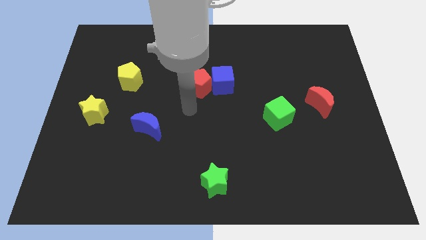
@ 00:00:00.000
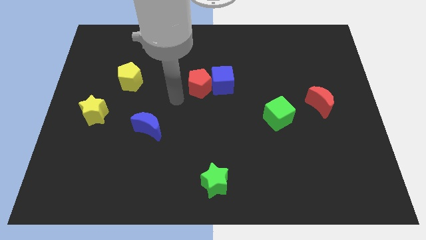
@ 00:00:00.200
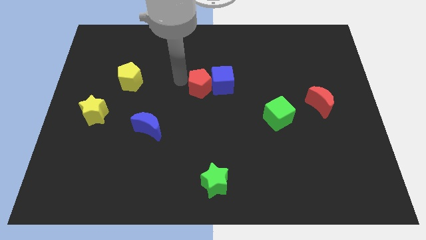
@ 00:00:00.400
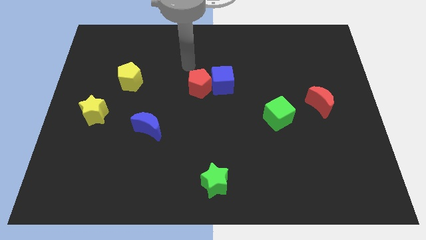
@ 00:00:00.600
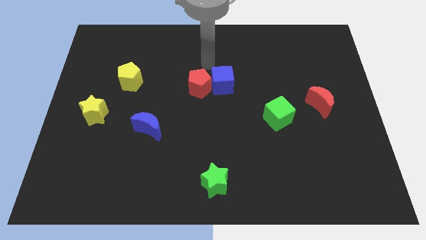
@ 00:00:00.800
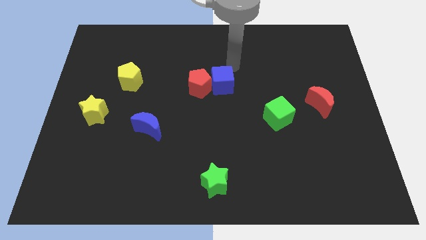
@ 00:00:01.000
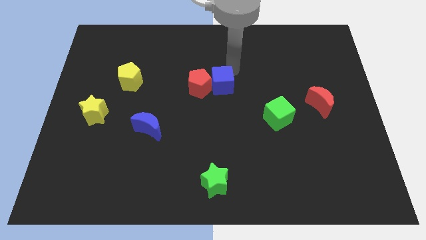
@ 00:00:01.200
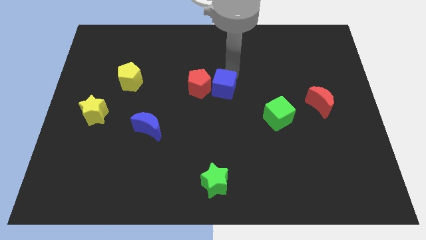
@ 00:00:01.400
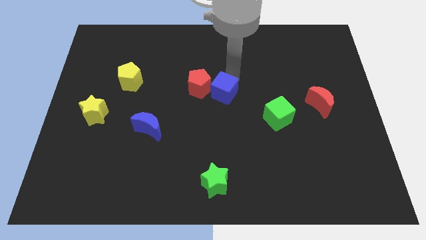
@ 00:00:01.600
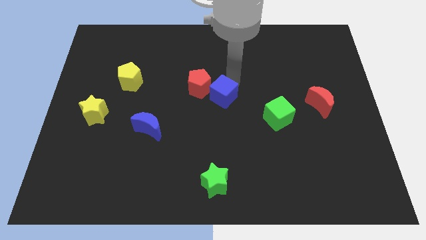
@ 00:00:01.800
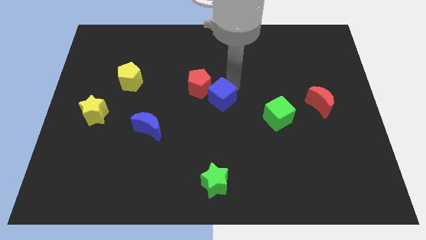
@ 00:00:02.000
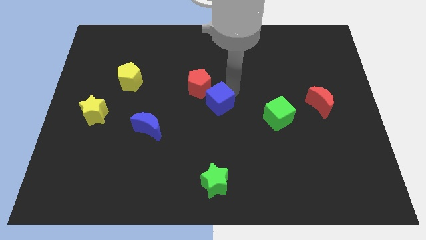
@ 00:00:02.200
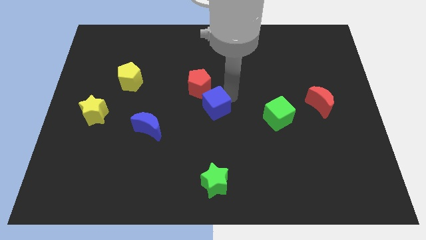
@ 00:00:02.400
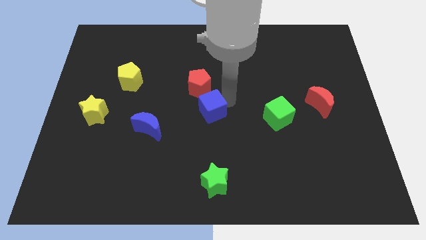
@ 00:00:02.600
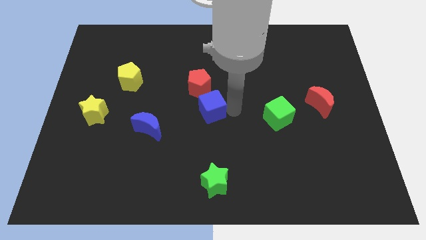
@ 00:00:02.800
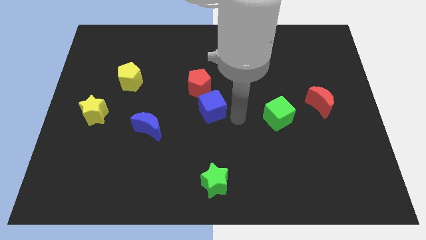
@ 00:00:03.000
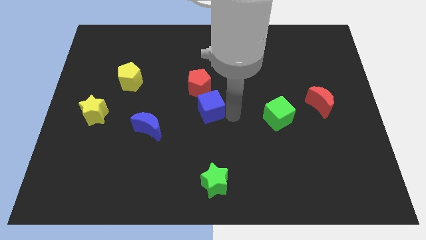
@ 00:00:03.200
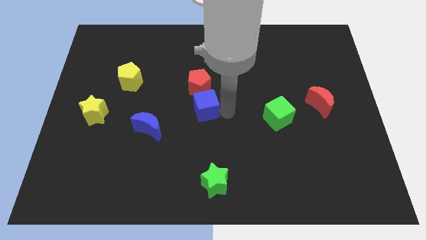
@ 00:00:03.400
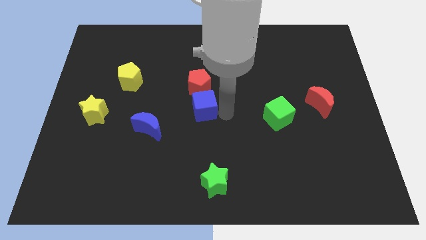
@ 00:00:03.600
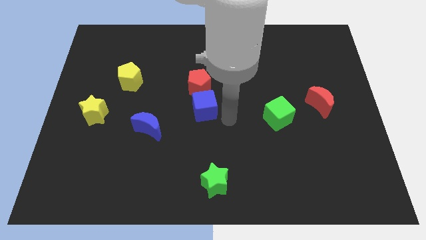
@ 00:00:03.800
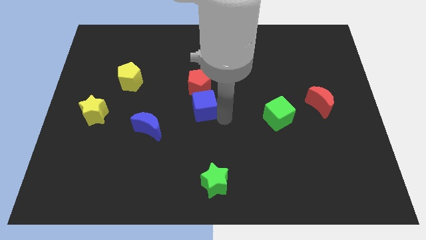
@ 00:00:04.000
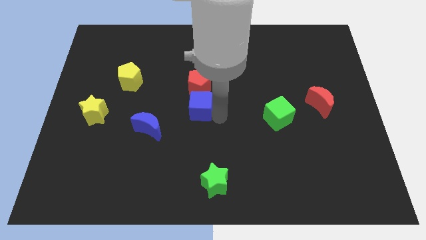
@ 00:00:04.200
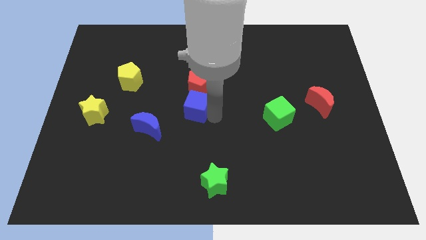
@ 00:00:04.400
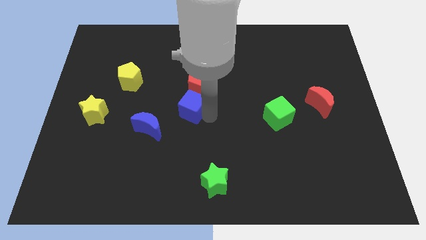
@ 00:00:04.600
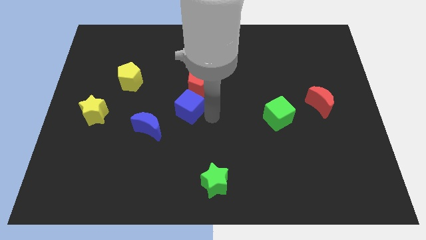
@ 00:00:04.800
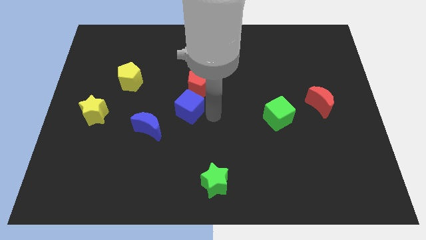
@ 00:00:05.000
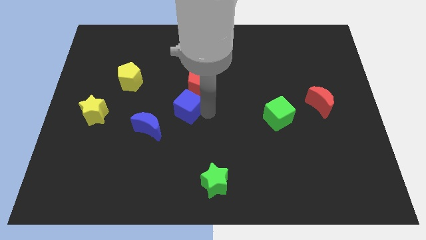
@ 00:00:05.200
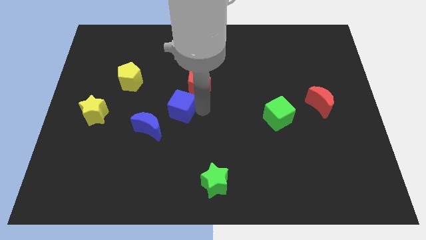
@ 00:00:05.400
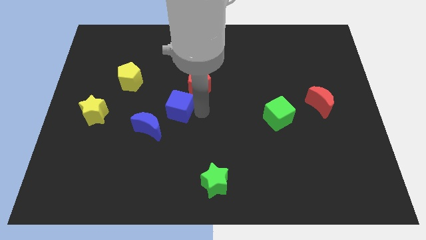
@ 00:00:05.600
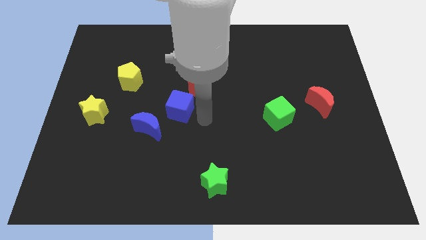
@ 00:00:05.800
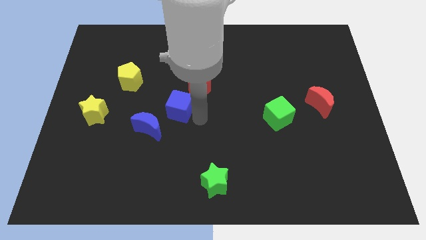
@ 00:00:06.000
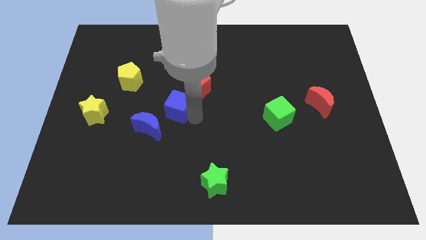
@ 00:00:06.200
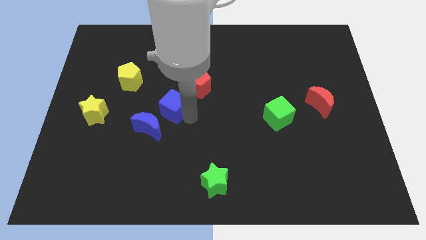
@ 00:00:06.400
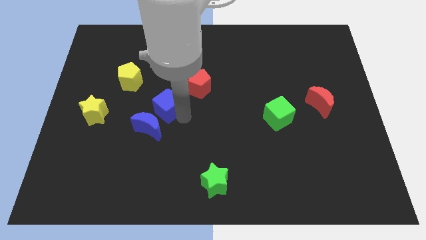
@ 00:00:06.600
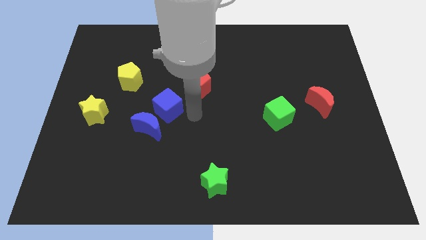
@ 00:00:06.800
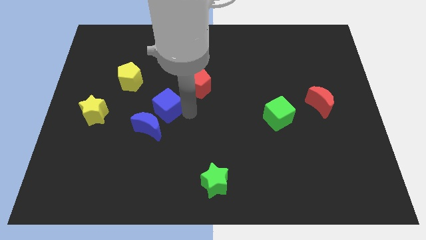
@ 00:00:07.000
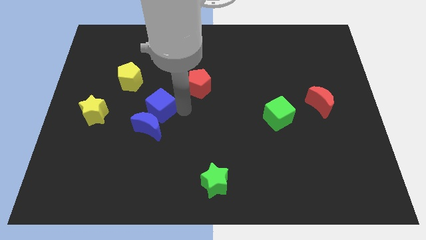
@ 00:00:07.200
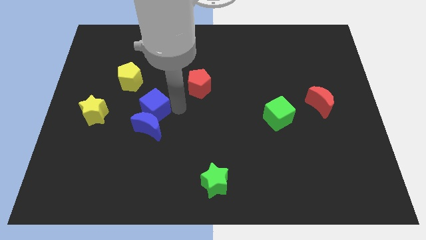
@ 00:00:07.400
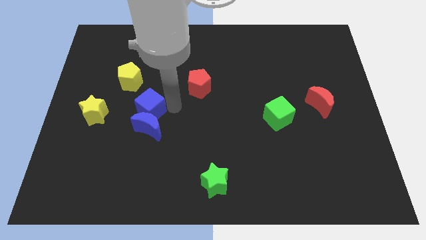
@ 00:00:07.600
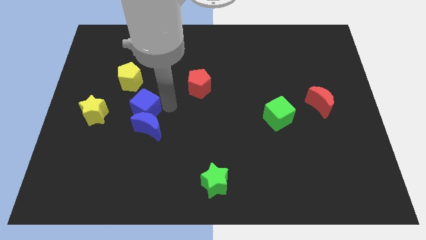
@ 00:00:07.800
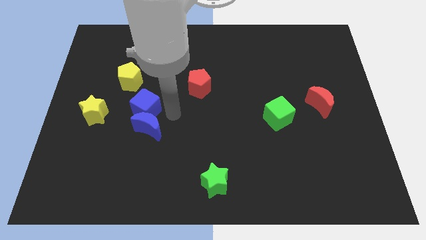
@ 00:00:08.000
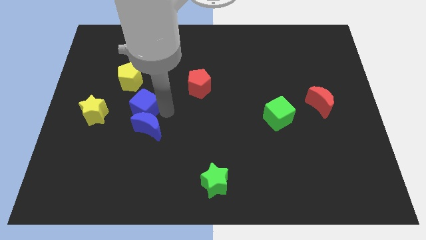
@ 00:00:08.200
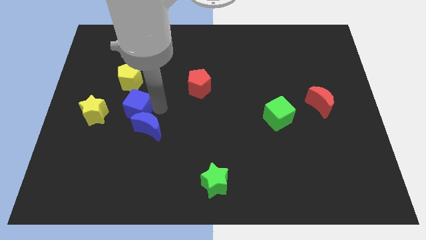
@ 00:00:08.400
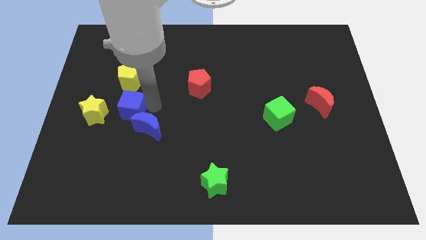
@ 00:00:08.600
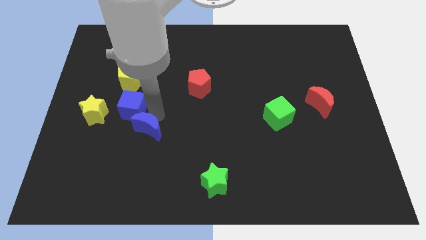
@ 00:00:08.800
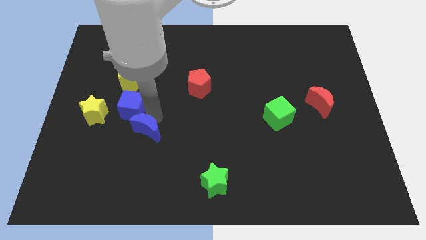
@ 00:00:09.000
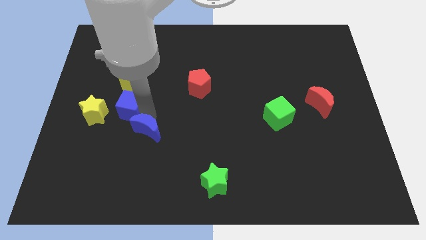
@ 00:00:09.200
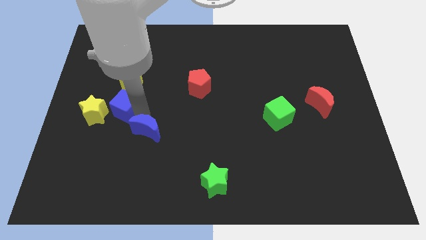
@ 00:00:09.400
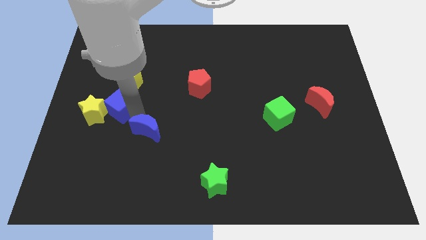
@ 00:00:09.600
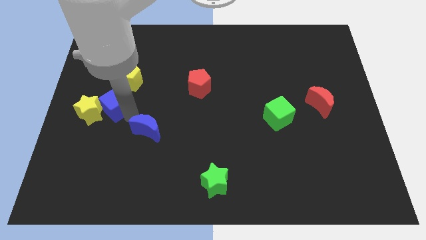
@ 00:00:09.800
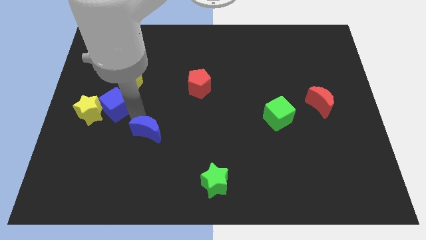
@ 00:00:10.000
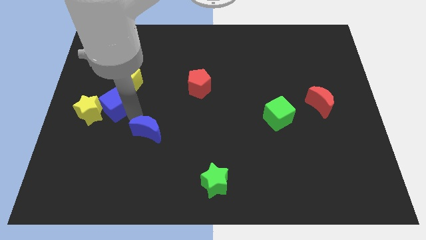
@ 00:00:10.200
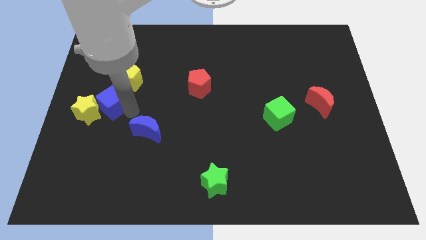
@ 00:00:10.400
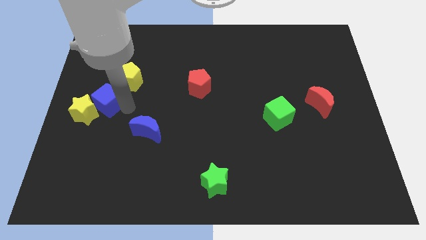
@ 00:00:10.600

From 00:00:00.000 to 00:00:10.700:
push the blue cube to the left side of the board
